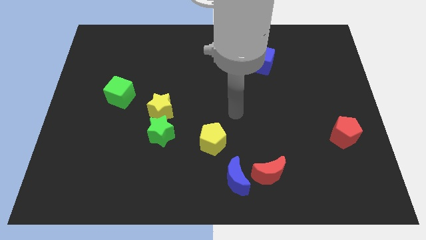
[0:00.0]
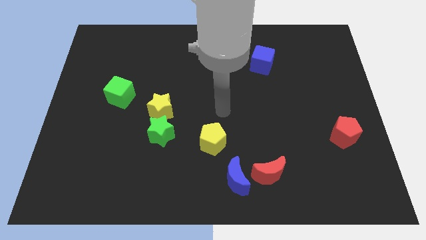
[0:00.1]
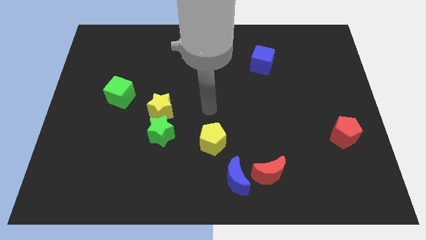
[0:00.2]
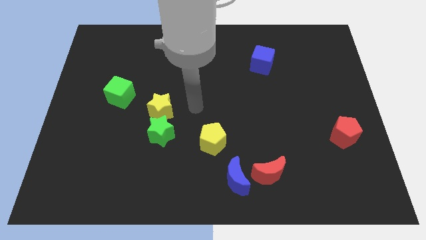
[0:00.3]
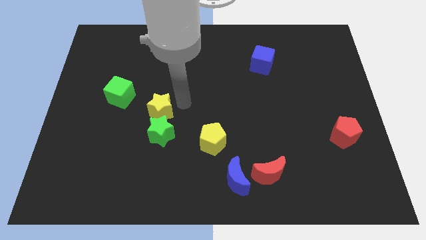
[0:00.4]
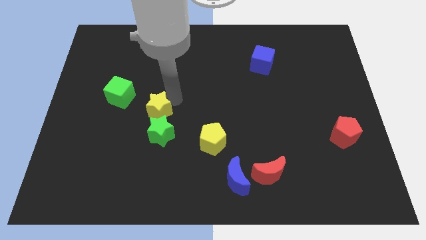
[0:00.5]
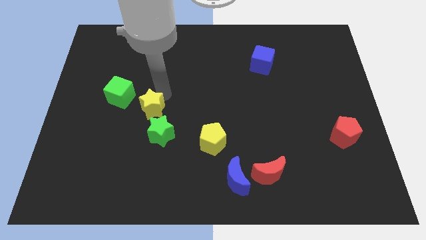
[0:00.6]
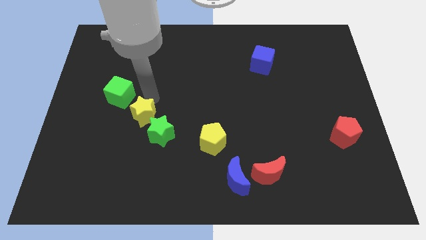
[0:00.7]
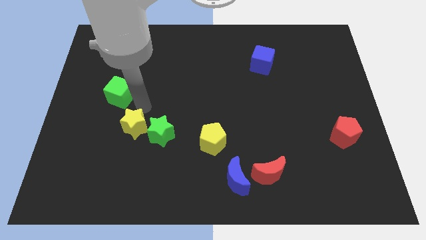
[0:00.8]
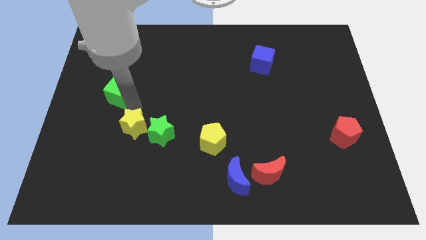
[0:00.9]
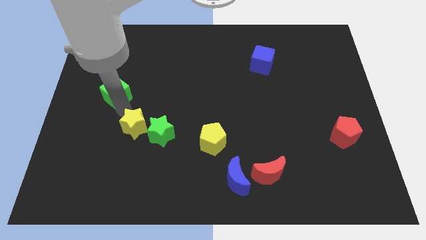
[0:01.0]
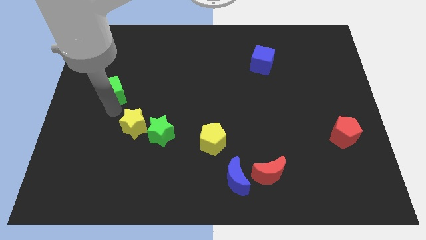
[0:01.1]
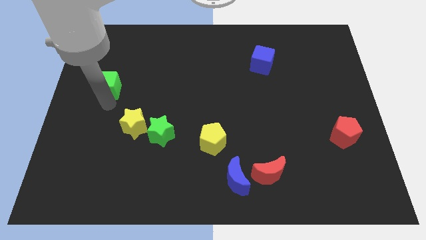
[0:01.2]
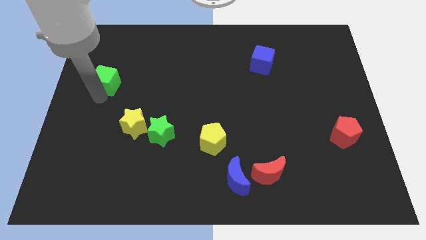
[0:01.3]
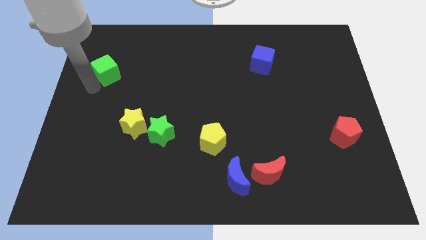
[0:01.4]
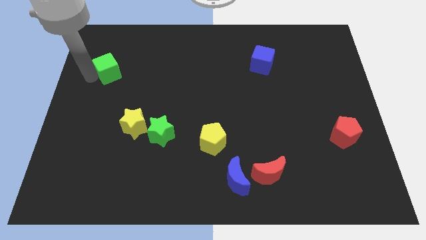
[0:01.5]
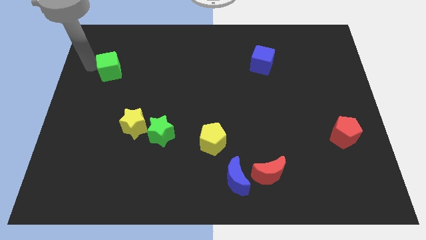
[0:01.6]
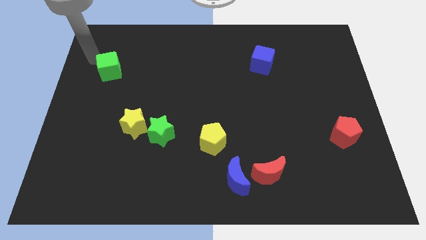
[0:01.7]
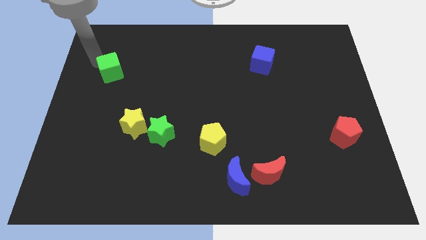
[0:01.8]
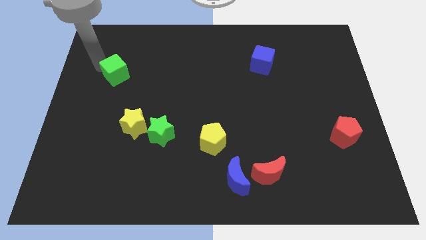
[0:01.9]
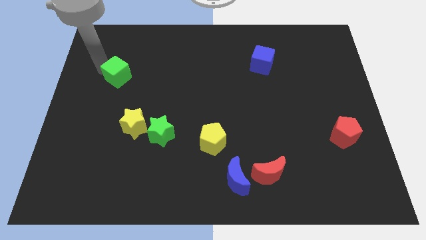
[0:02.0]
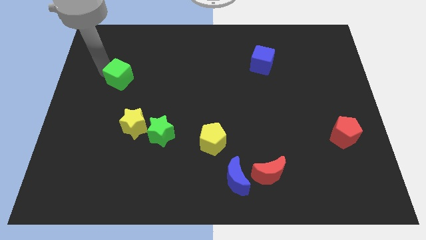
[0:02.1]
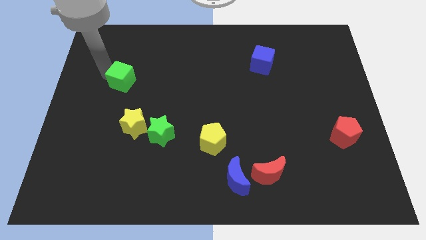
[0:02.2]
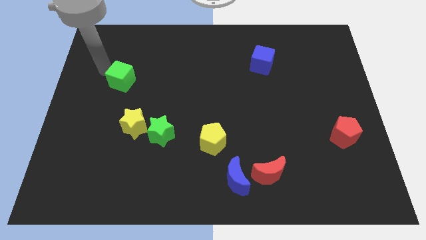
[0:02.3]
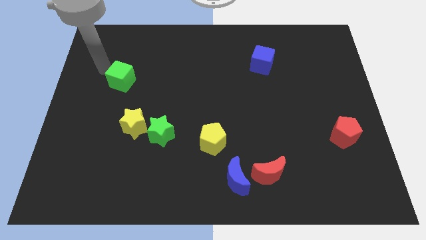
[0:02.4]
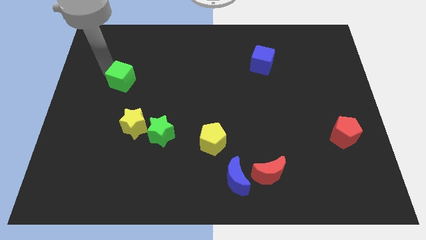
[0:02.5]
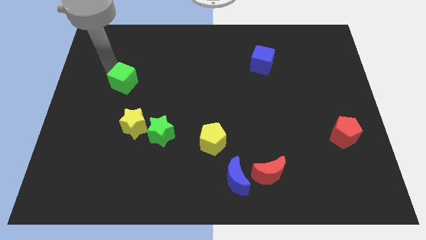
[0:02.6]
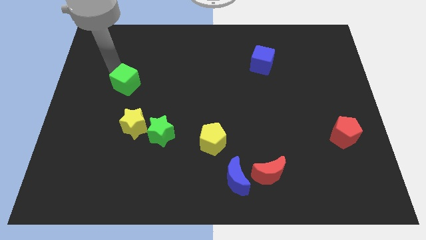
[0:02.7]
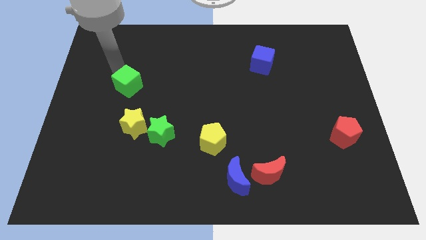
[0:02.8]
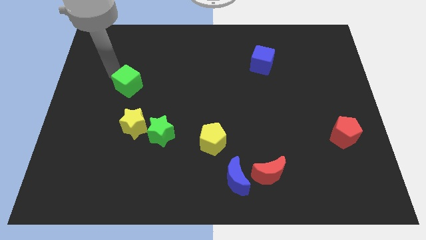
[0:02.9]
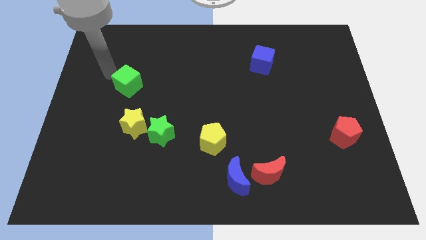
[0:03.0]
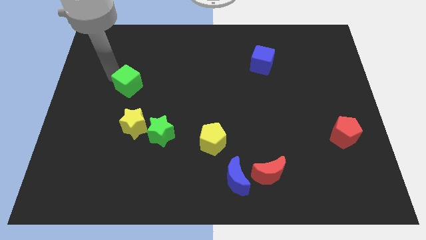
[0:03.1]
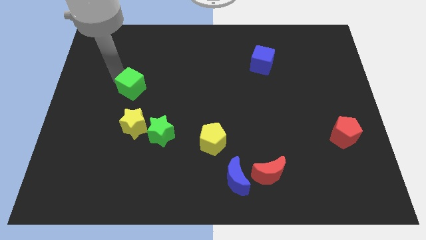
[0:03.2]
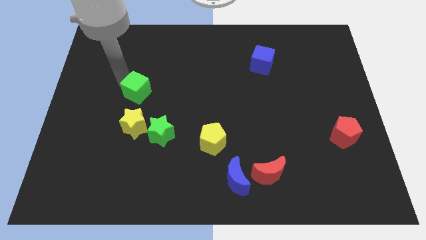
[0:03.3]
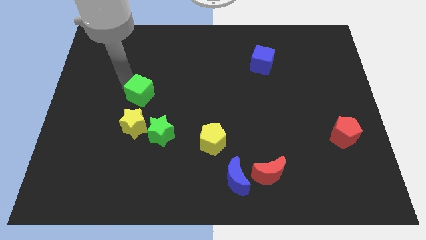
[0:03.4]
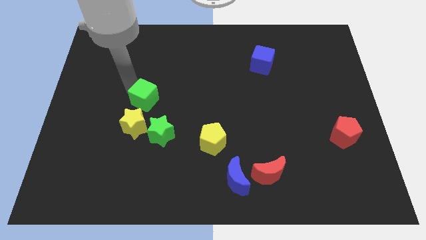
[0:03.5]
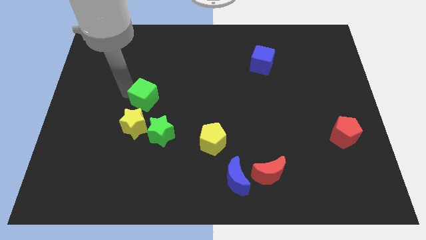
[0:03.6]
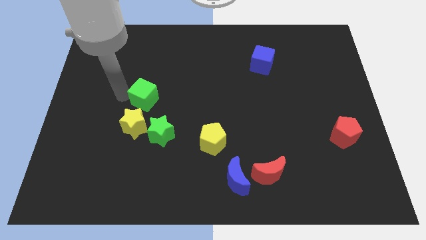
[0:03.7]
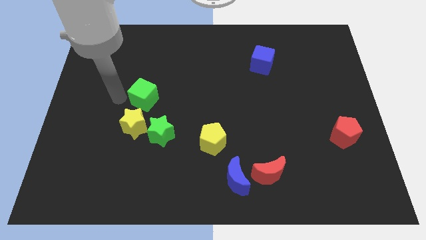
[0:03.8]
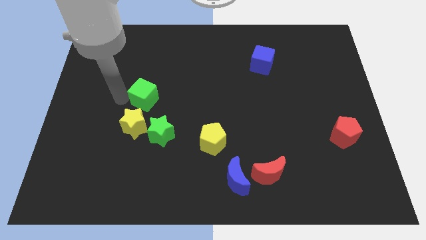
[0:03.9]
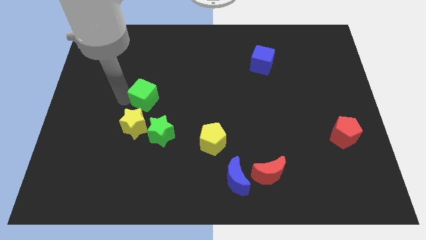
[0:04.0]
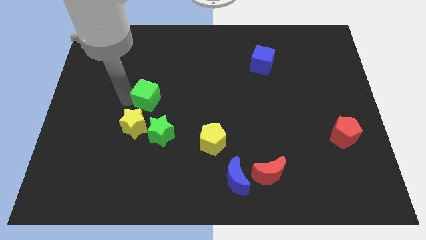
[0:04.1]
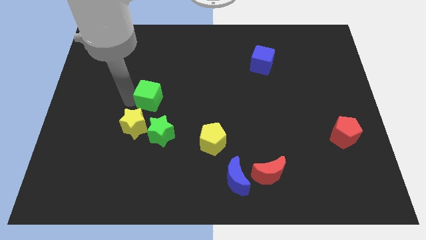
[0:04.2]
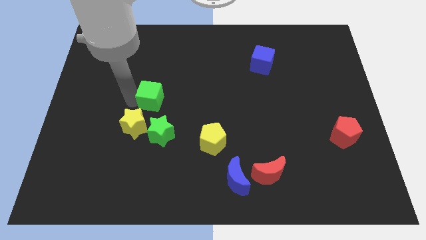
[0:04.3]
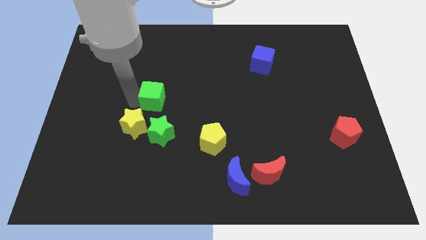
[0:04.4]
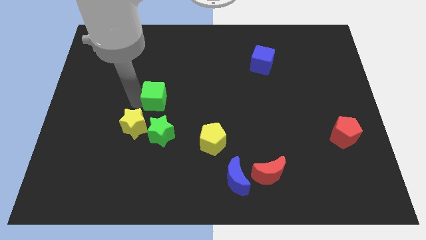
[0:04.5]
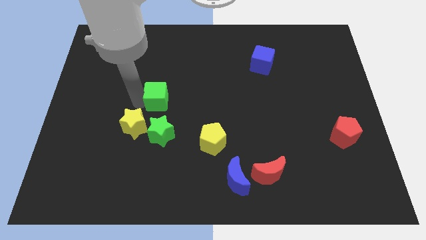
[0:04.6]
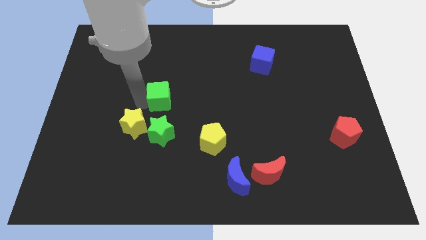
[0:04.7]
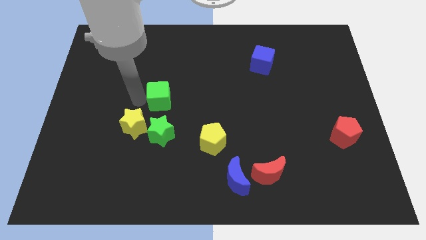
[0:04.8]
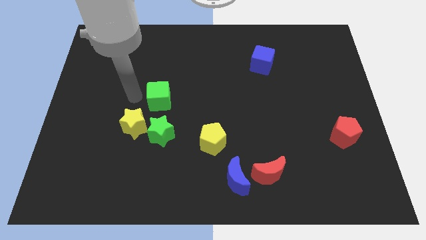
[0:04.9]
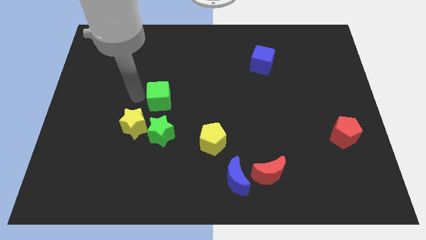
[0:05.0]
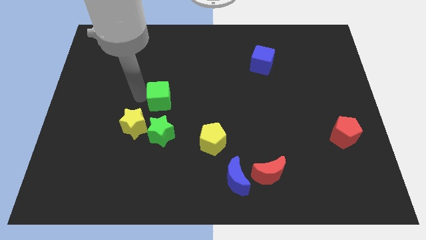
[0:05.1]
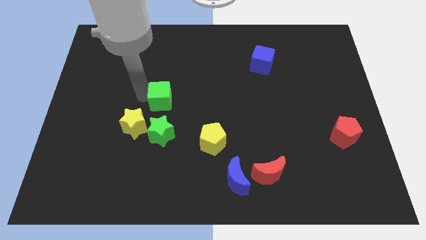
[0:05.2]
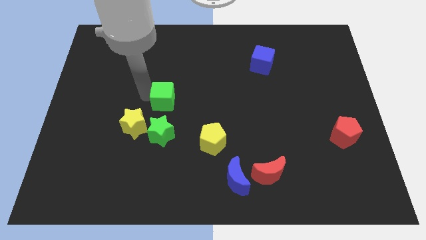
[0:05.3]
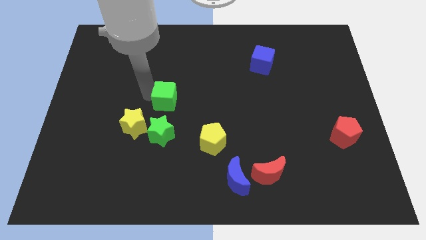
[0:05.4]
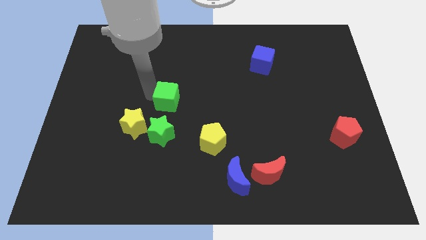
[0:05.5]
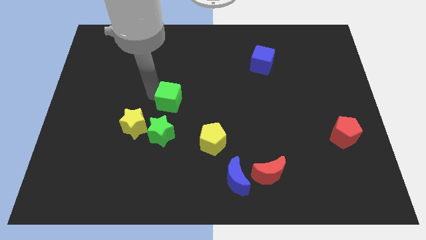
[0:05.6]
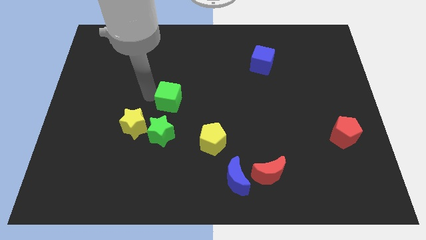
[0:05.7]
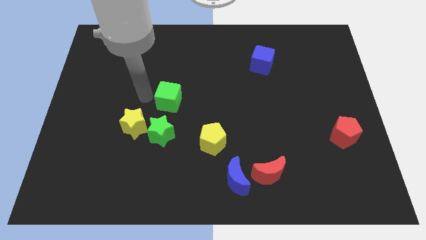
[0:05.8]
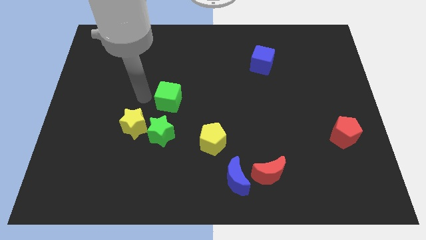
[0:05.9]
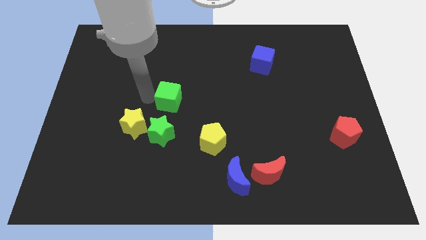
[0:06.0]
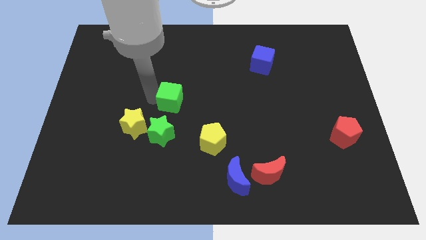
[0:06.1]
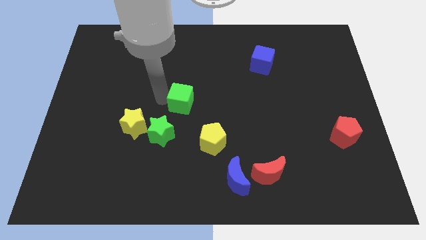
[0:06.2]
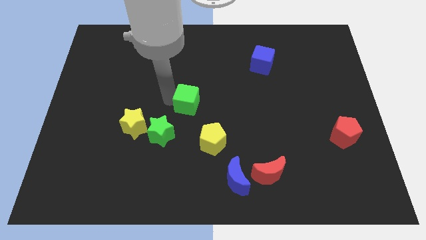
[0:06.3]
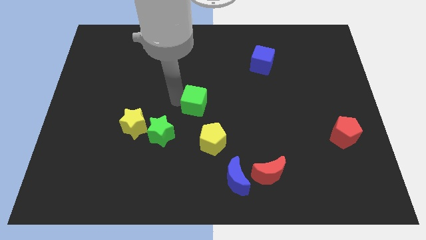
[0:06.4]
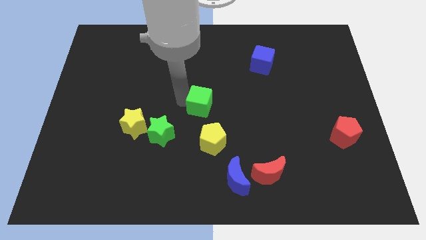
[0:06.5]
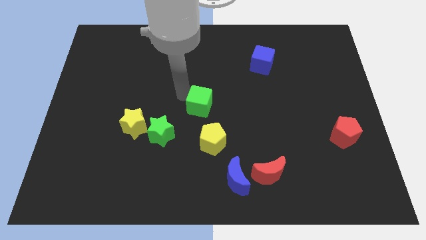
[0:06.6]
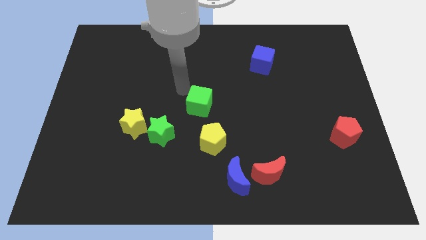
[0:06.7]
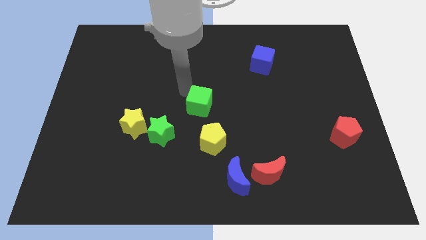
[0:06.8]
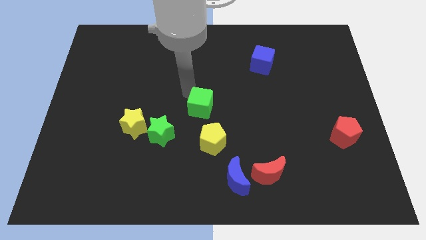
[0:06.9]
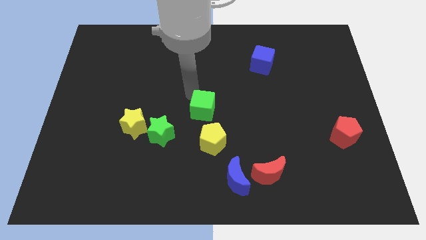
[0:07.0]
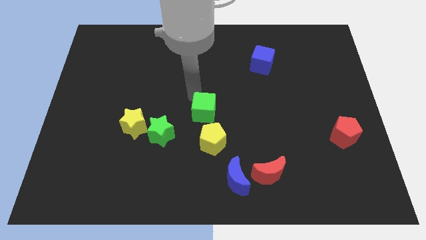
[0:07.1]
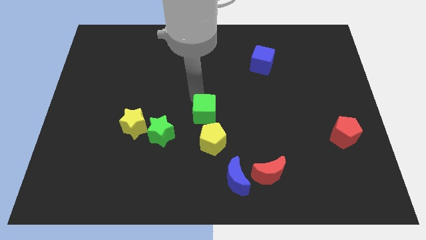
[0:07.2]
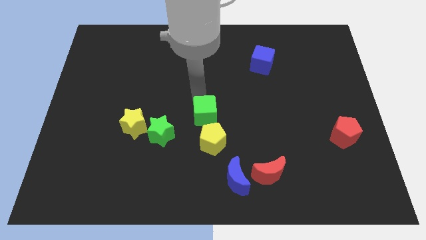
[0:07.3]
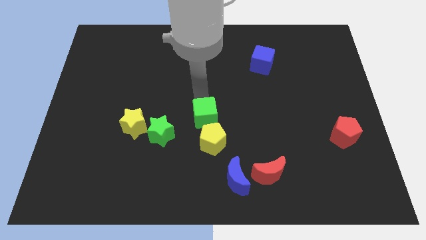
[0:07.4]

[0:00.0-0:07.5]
push the green cube just right of the green star
